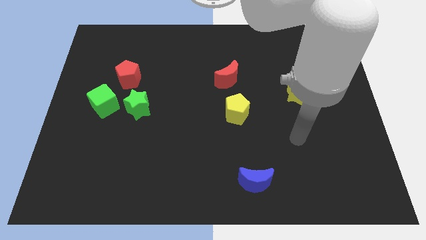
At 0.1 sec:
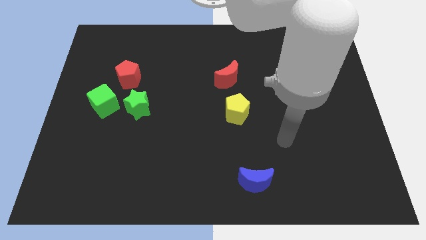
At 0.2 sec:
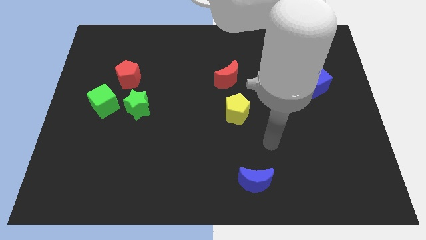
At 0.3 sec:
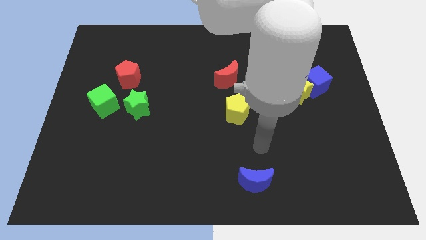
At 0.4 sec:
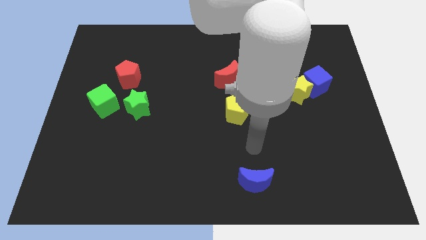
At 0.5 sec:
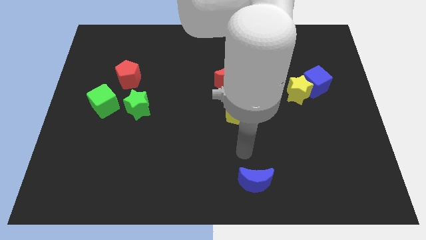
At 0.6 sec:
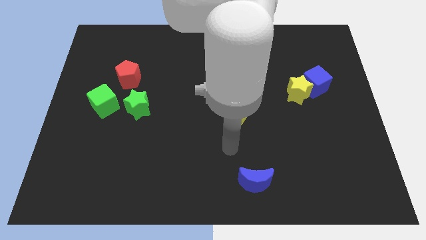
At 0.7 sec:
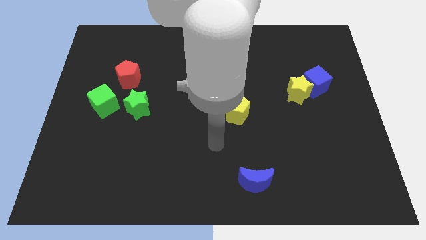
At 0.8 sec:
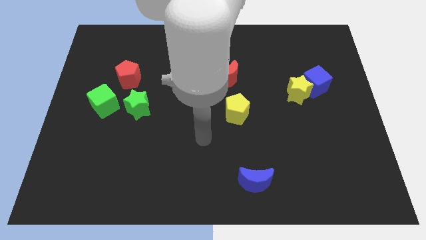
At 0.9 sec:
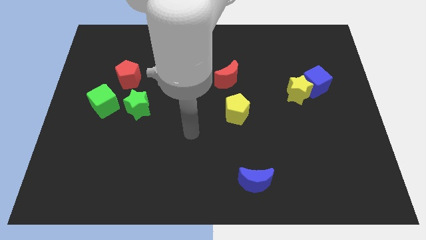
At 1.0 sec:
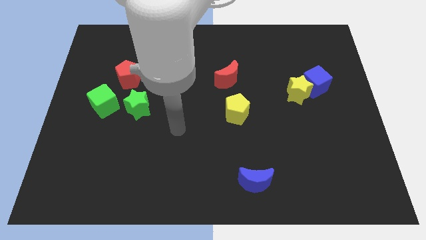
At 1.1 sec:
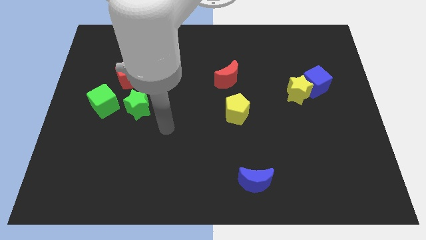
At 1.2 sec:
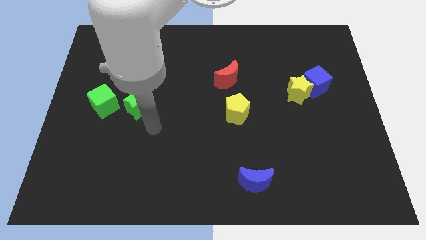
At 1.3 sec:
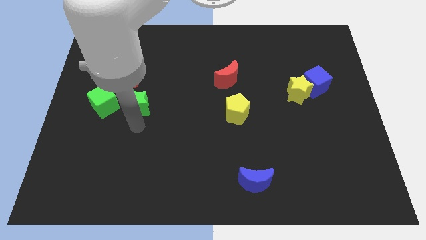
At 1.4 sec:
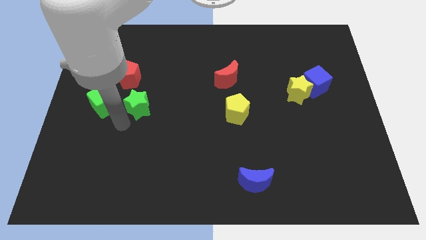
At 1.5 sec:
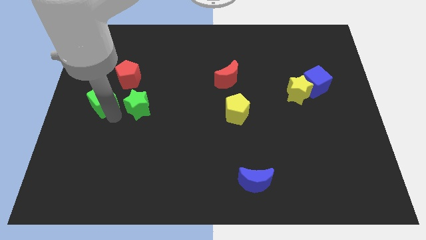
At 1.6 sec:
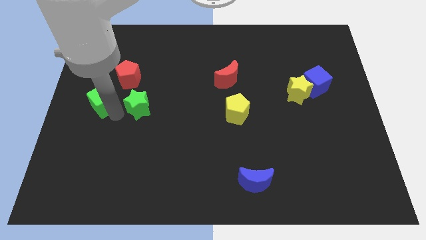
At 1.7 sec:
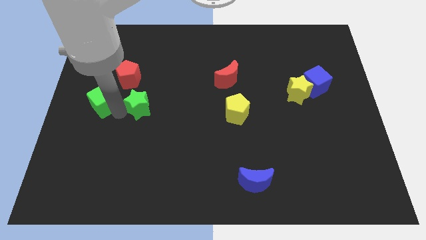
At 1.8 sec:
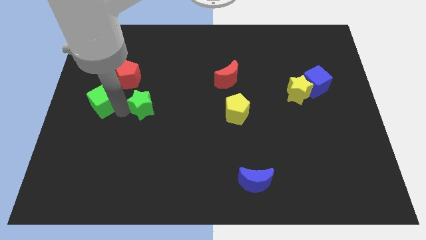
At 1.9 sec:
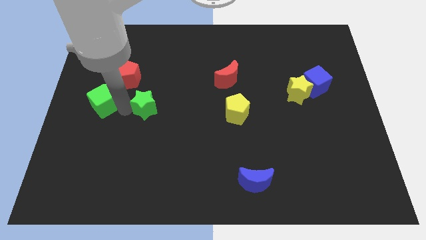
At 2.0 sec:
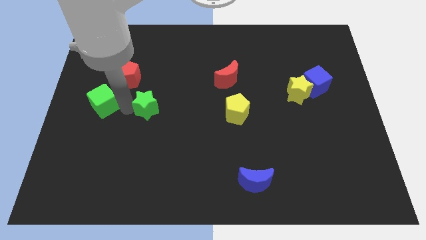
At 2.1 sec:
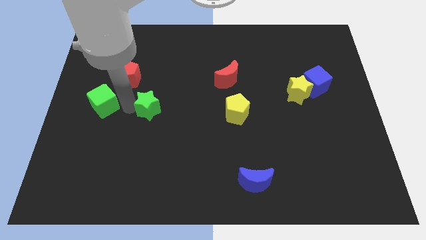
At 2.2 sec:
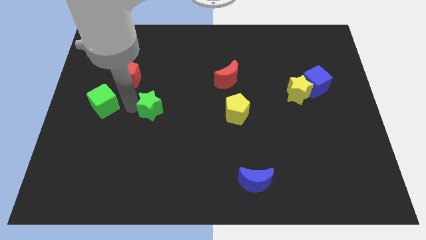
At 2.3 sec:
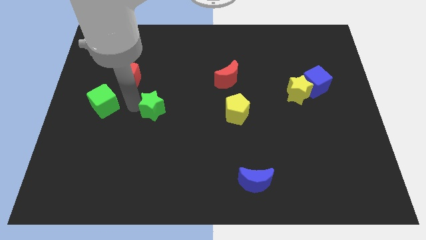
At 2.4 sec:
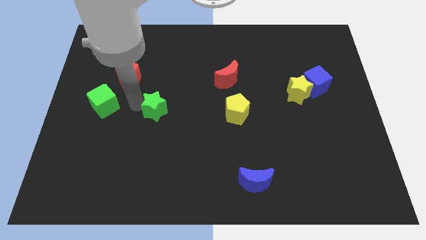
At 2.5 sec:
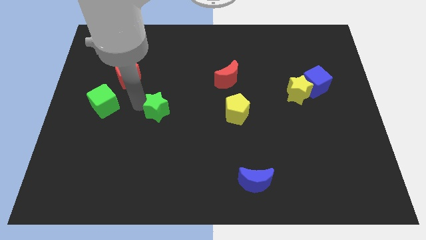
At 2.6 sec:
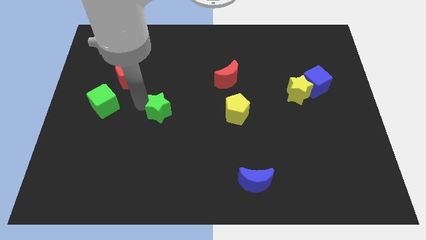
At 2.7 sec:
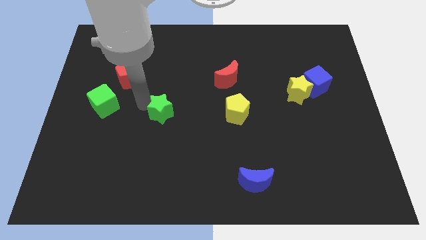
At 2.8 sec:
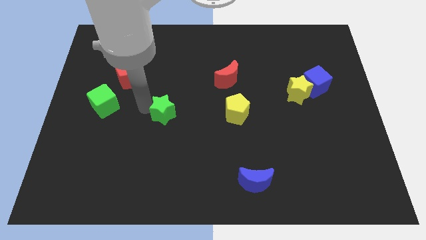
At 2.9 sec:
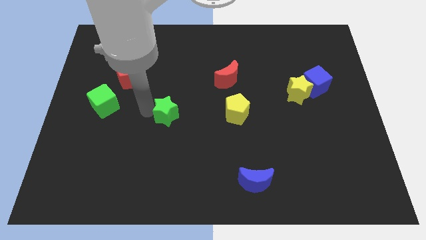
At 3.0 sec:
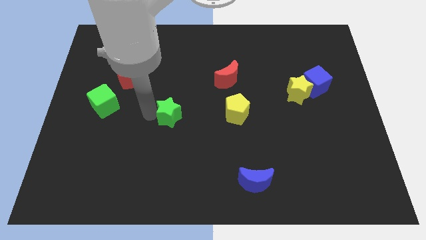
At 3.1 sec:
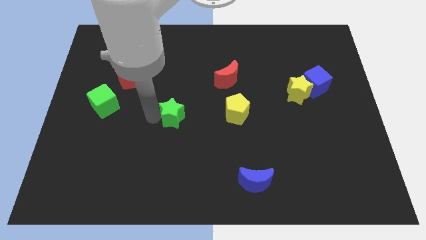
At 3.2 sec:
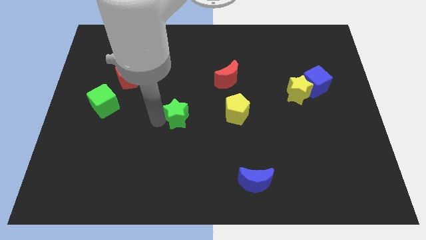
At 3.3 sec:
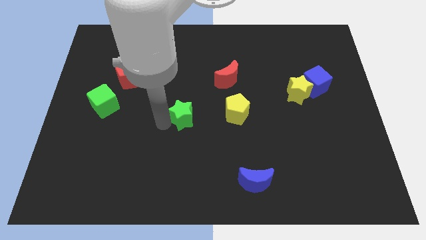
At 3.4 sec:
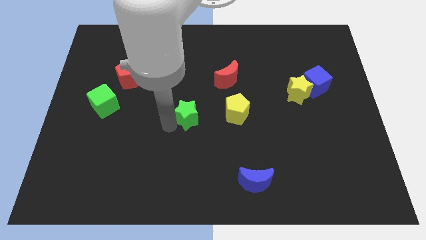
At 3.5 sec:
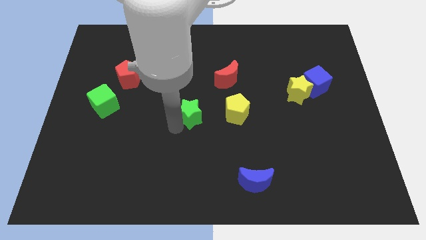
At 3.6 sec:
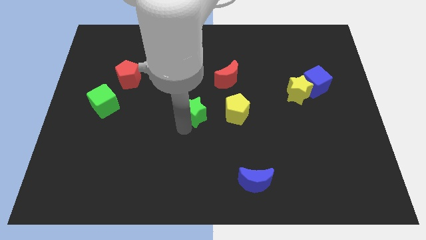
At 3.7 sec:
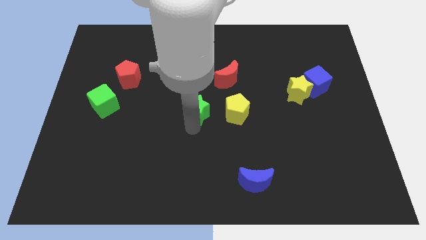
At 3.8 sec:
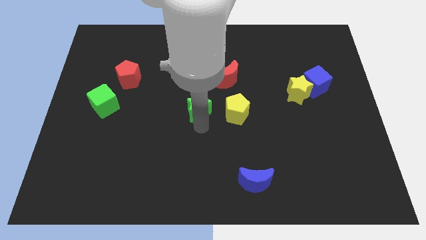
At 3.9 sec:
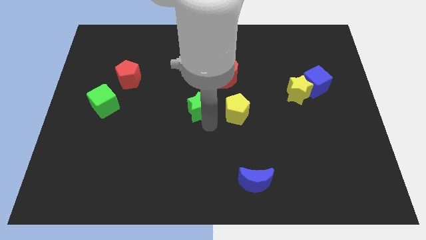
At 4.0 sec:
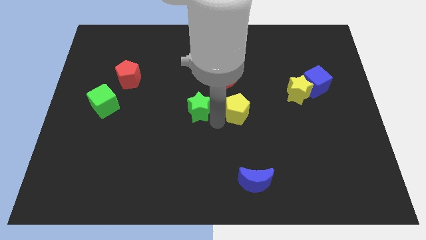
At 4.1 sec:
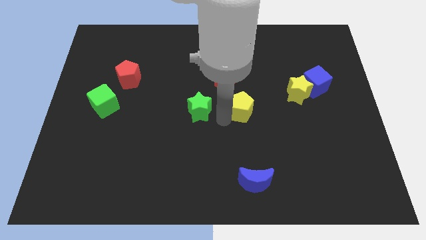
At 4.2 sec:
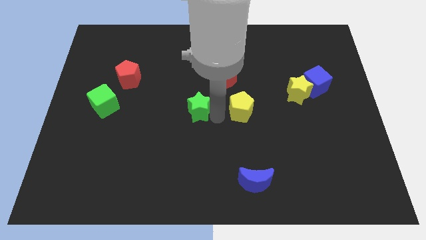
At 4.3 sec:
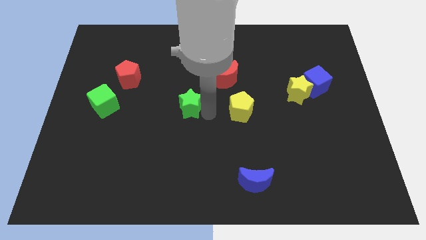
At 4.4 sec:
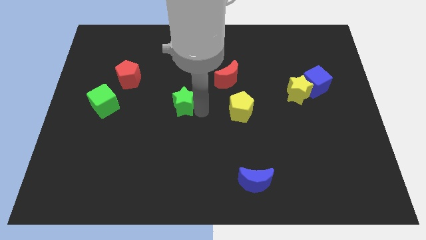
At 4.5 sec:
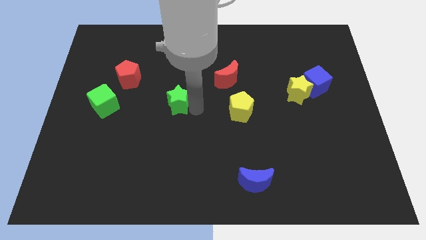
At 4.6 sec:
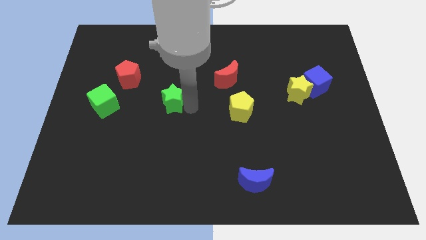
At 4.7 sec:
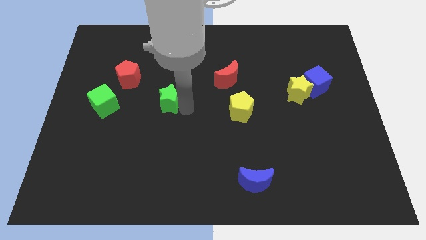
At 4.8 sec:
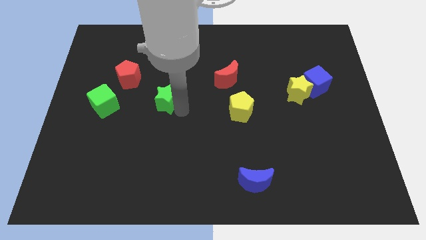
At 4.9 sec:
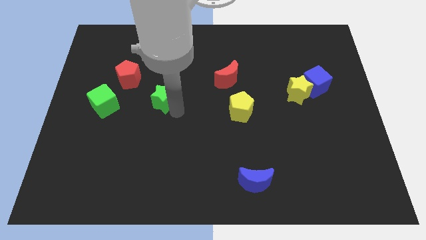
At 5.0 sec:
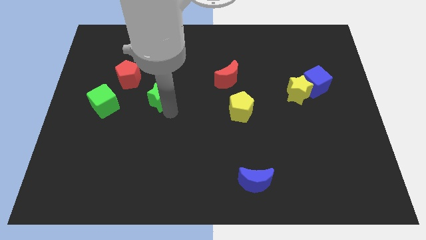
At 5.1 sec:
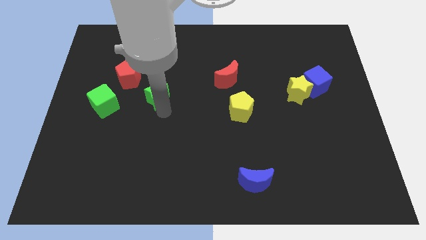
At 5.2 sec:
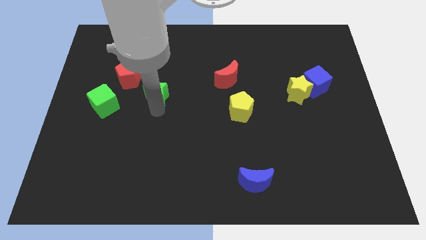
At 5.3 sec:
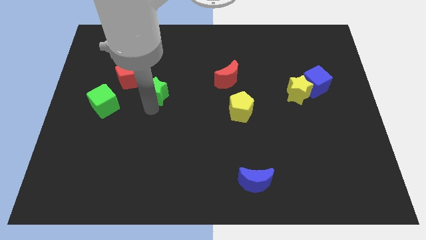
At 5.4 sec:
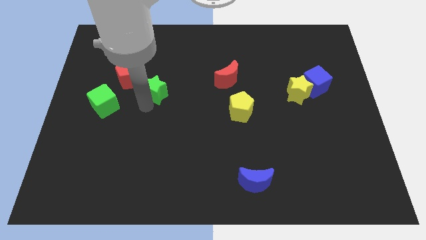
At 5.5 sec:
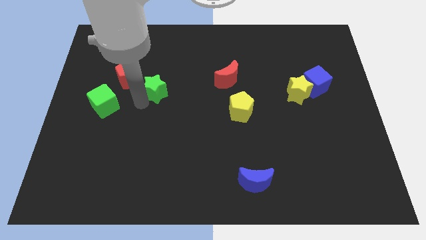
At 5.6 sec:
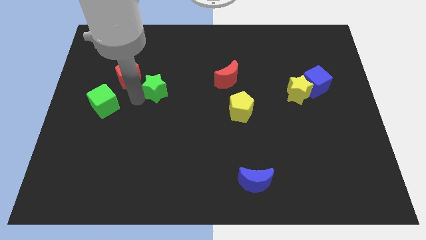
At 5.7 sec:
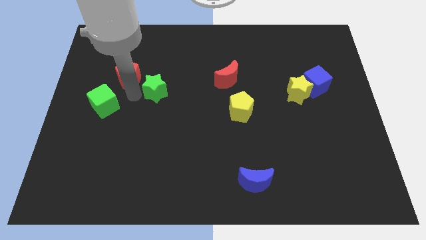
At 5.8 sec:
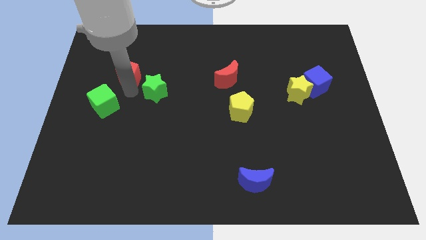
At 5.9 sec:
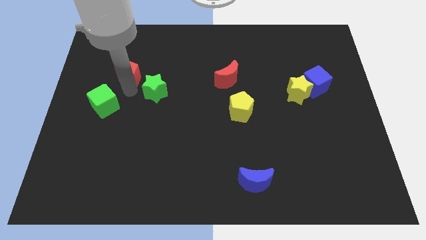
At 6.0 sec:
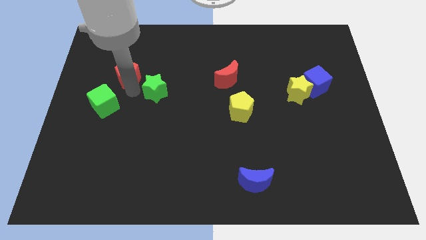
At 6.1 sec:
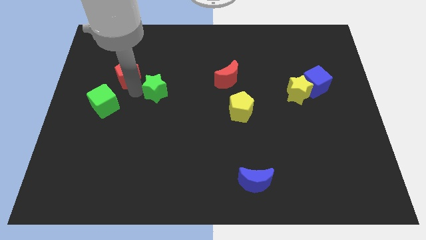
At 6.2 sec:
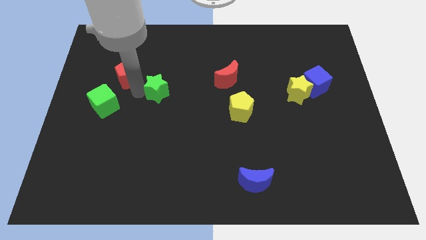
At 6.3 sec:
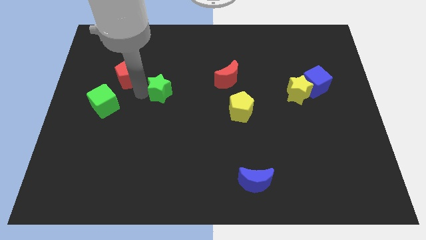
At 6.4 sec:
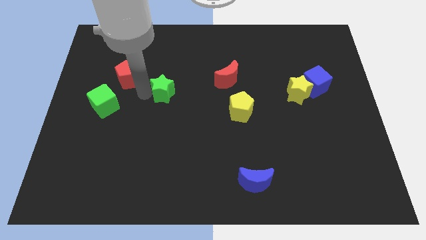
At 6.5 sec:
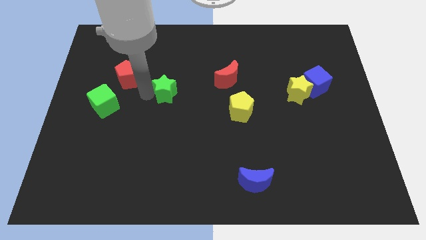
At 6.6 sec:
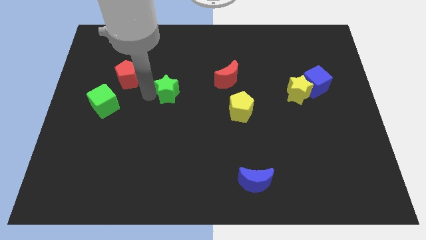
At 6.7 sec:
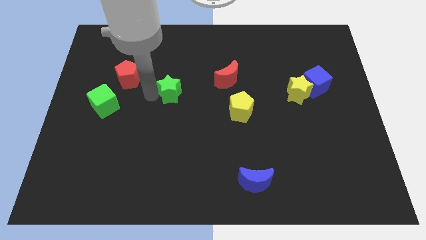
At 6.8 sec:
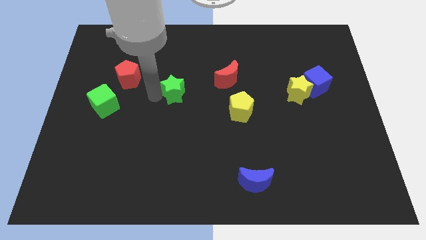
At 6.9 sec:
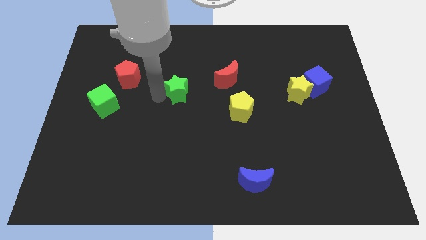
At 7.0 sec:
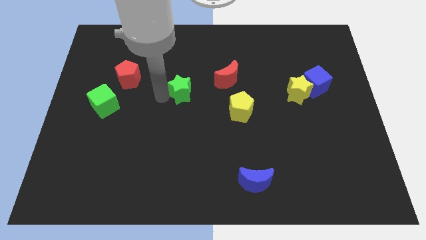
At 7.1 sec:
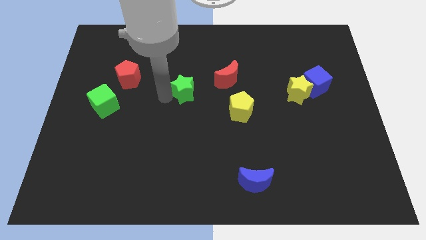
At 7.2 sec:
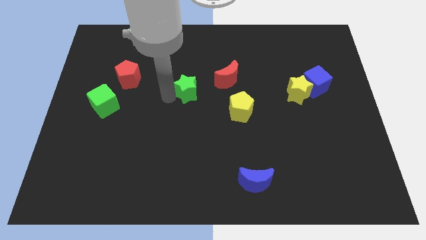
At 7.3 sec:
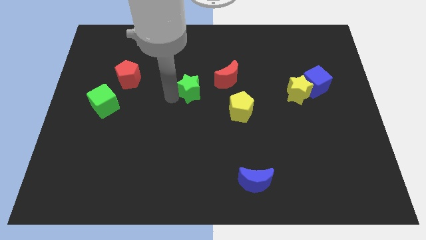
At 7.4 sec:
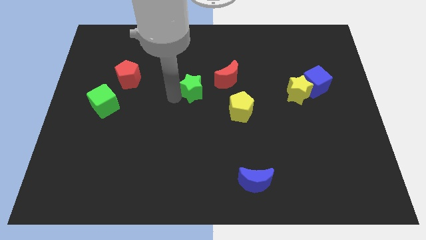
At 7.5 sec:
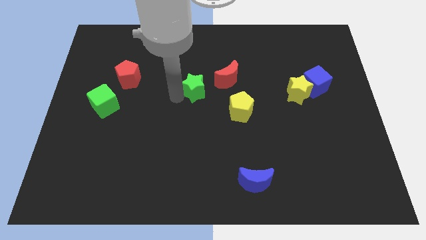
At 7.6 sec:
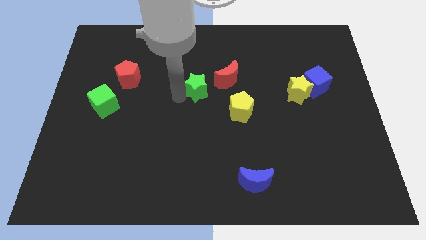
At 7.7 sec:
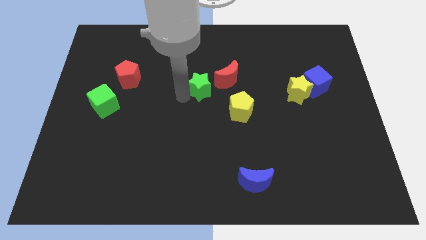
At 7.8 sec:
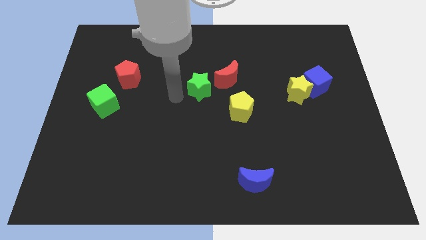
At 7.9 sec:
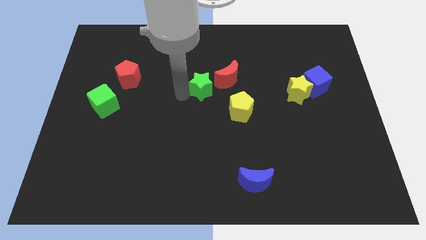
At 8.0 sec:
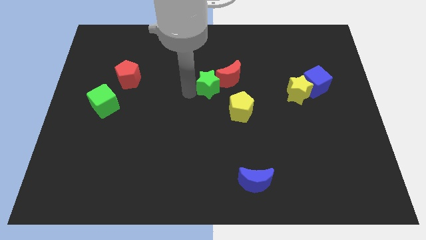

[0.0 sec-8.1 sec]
move the green star towards the red moon
